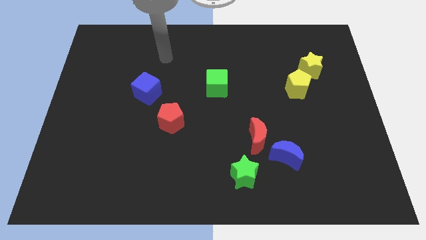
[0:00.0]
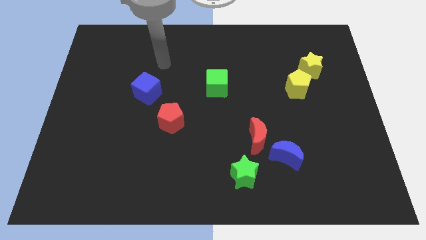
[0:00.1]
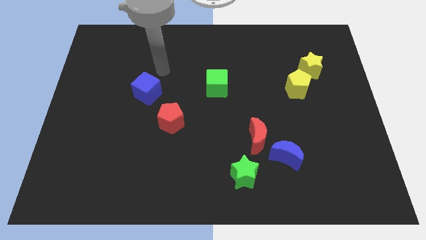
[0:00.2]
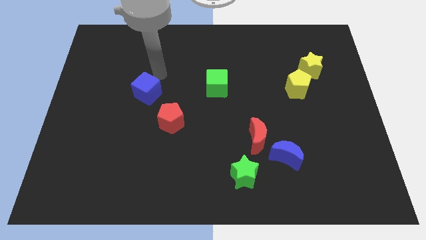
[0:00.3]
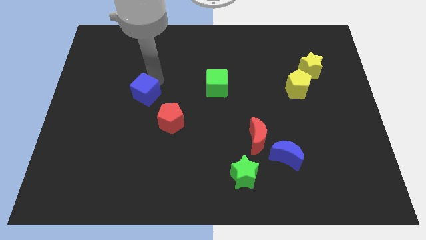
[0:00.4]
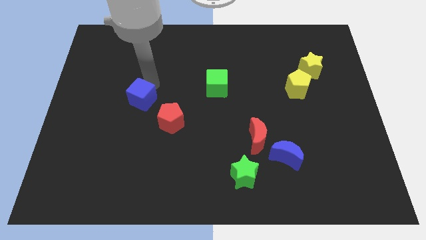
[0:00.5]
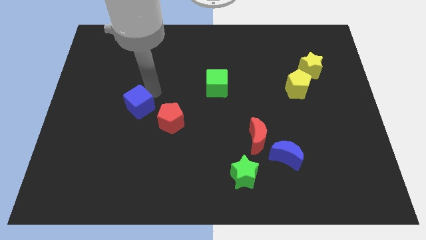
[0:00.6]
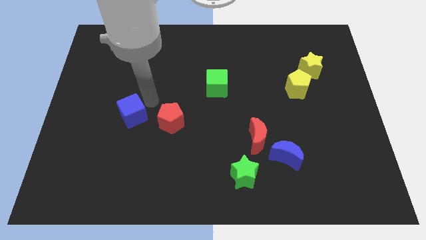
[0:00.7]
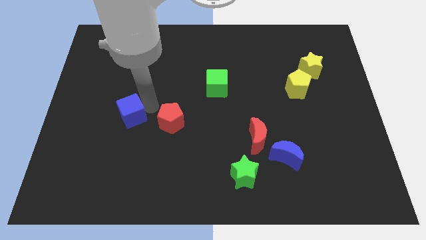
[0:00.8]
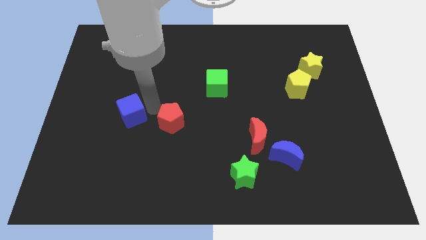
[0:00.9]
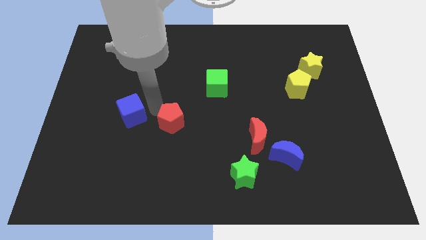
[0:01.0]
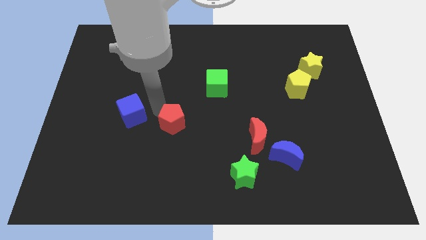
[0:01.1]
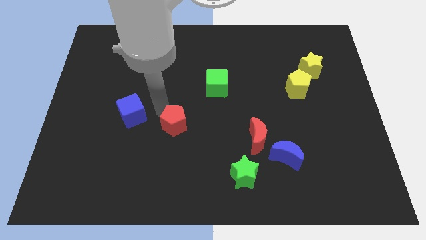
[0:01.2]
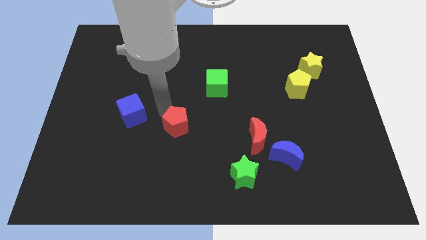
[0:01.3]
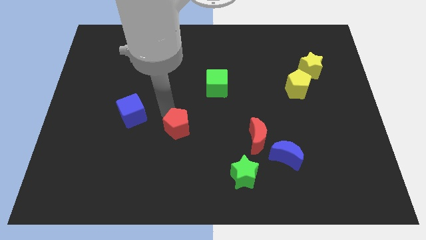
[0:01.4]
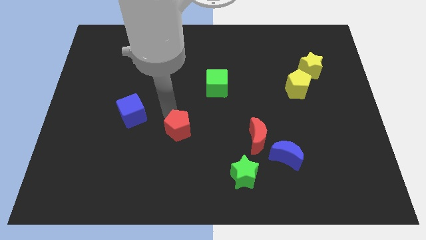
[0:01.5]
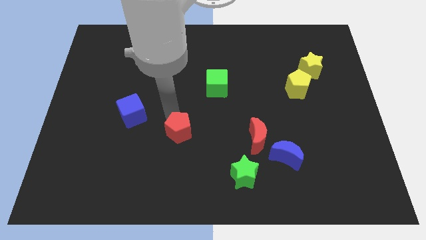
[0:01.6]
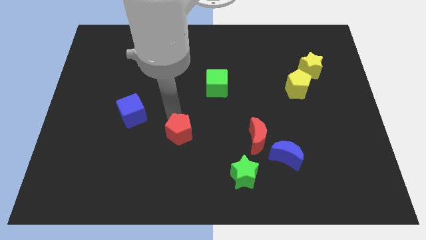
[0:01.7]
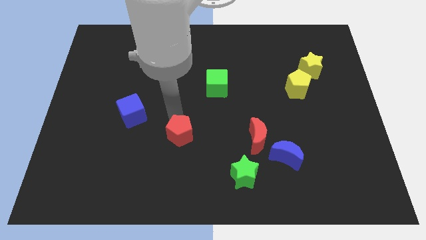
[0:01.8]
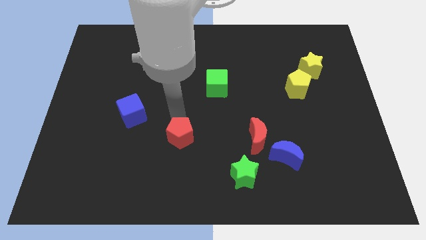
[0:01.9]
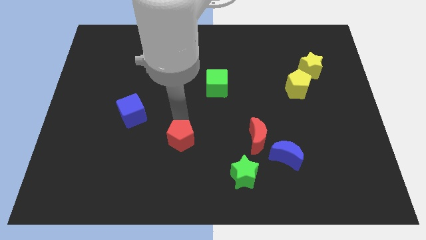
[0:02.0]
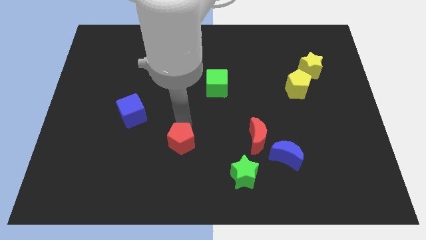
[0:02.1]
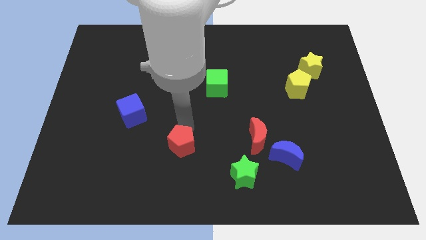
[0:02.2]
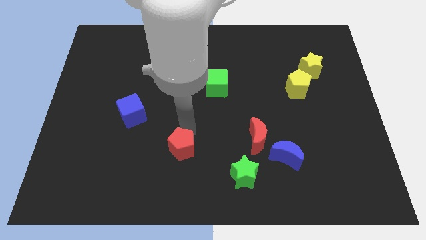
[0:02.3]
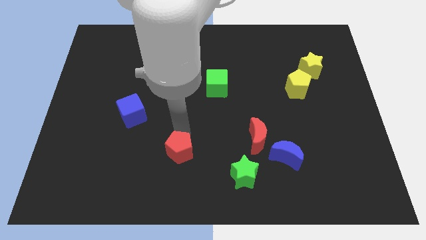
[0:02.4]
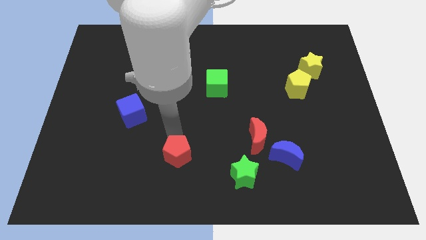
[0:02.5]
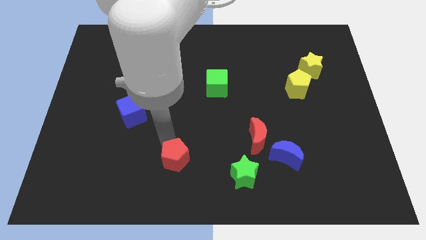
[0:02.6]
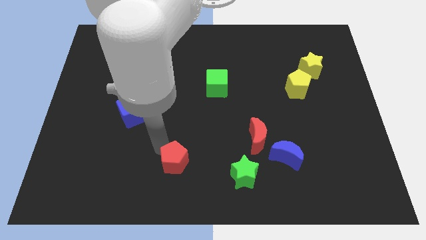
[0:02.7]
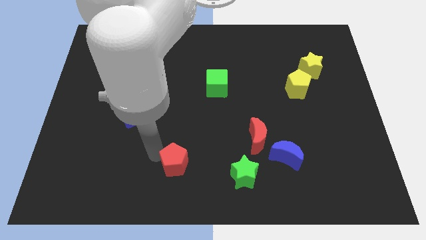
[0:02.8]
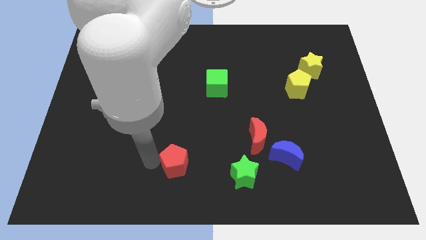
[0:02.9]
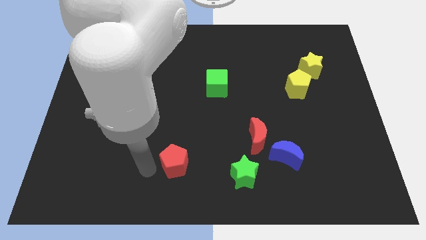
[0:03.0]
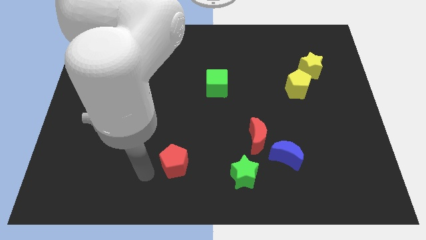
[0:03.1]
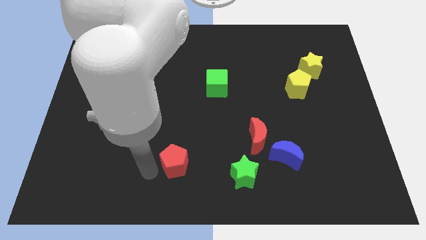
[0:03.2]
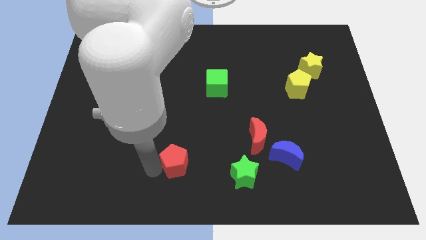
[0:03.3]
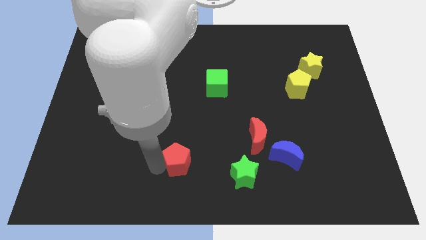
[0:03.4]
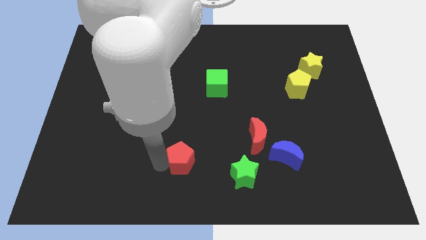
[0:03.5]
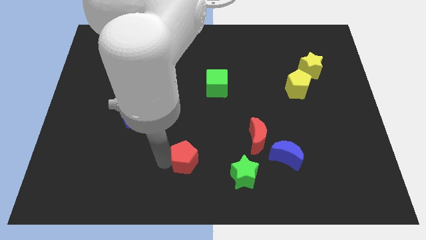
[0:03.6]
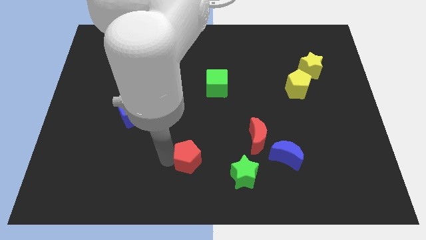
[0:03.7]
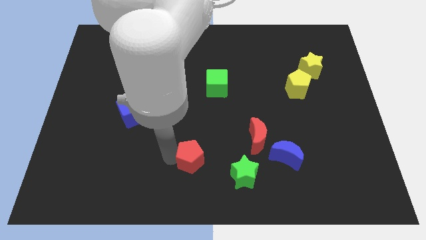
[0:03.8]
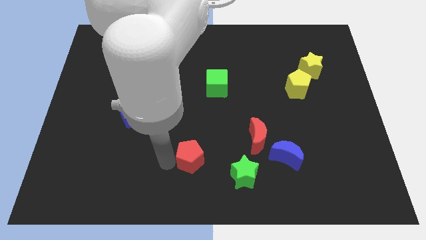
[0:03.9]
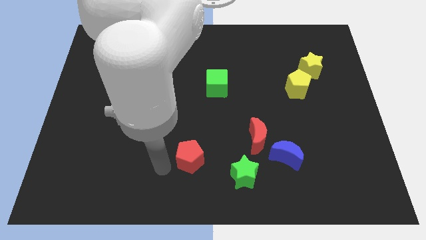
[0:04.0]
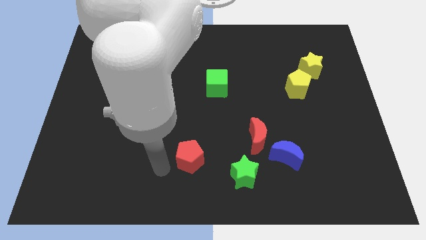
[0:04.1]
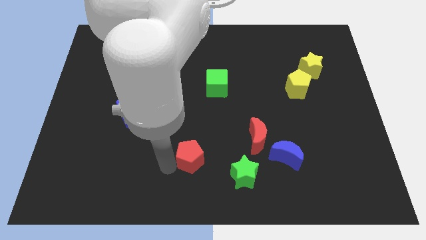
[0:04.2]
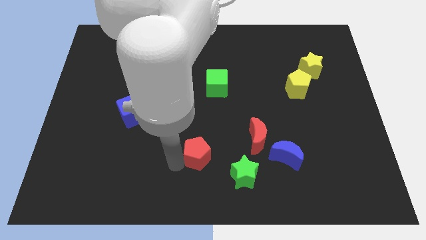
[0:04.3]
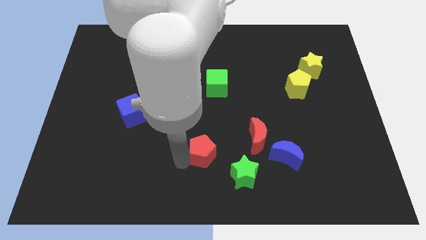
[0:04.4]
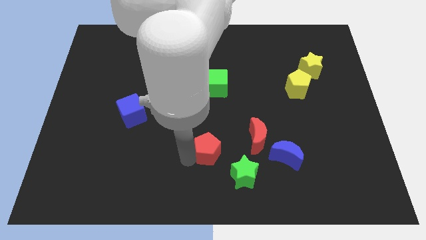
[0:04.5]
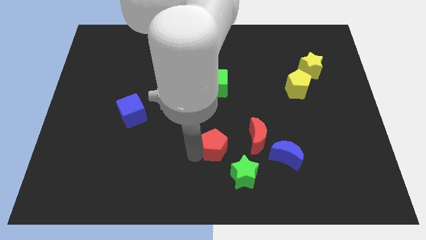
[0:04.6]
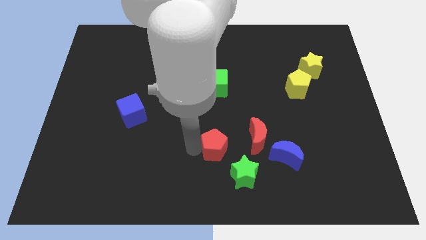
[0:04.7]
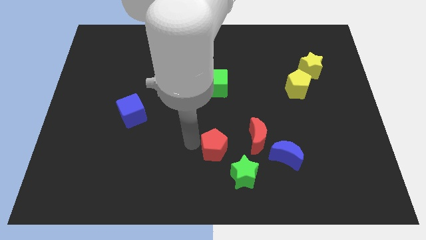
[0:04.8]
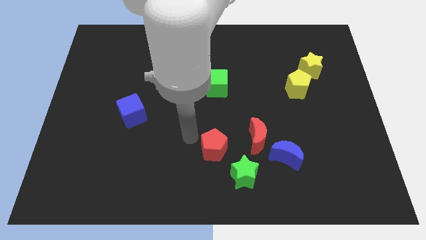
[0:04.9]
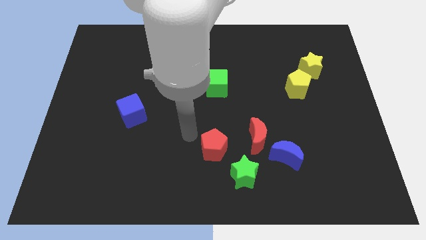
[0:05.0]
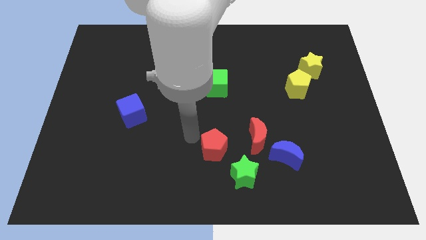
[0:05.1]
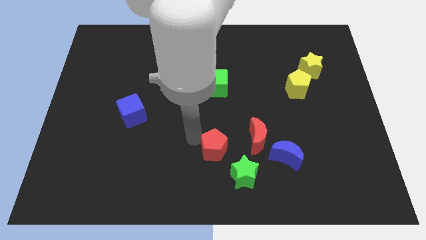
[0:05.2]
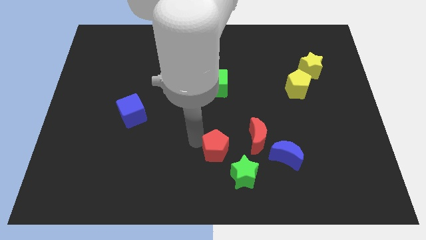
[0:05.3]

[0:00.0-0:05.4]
move the red pentagon to the bottom left side of the red moon

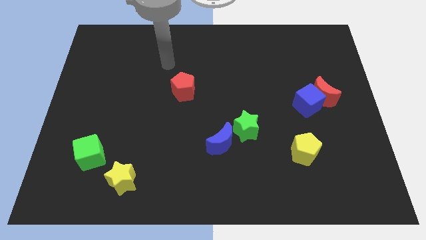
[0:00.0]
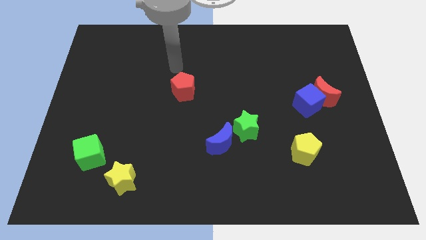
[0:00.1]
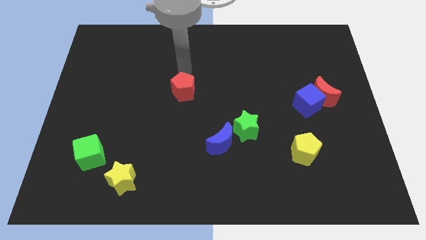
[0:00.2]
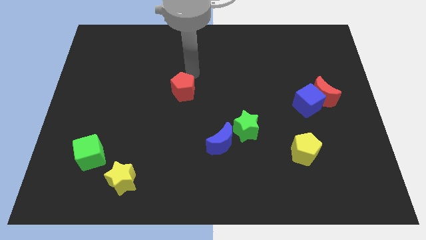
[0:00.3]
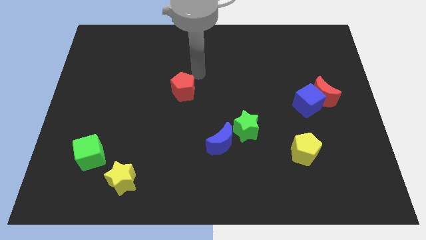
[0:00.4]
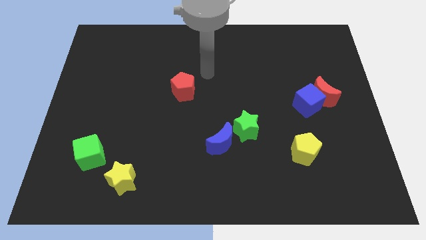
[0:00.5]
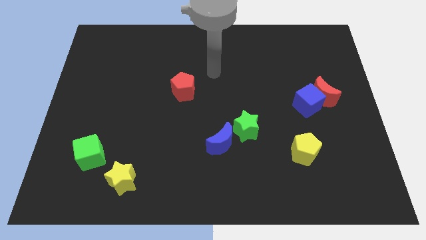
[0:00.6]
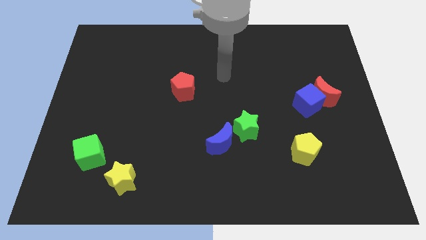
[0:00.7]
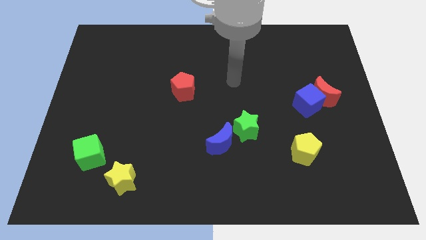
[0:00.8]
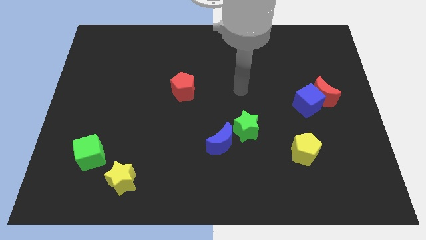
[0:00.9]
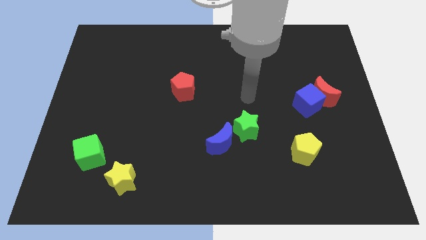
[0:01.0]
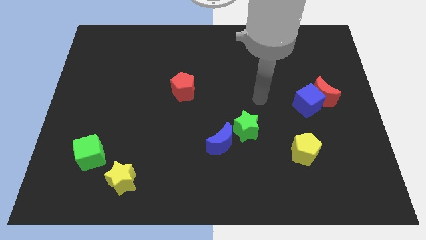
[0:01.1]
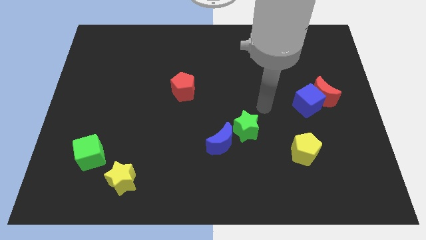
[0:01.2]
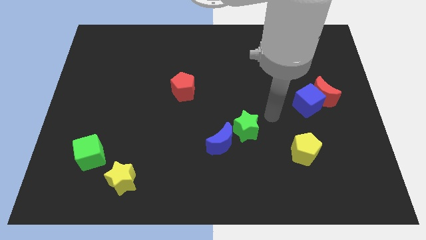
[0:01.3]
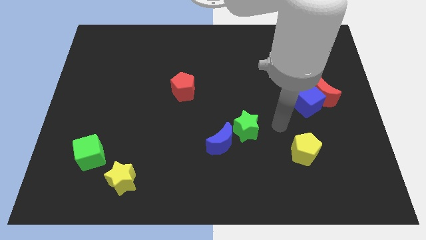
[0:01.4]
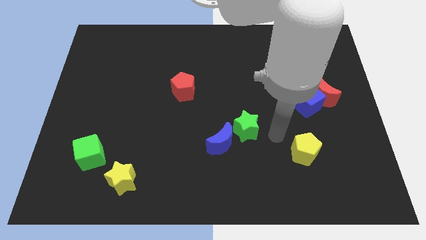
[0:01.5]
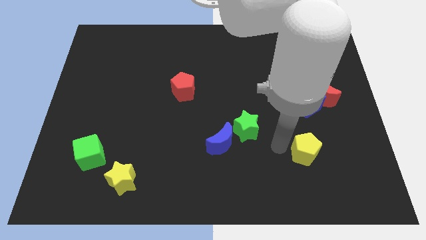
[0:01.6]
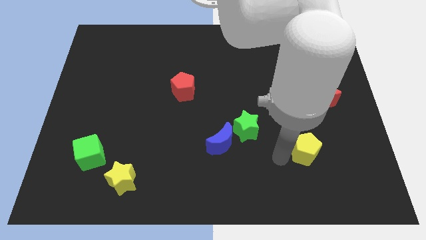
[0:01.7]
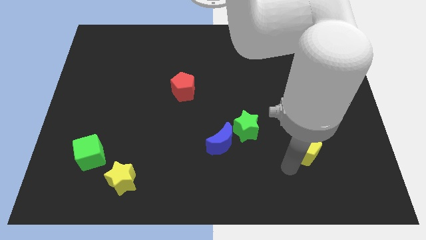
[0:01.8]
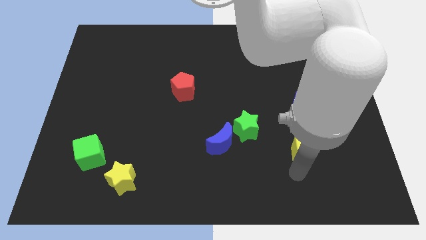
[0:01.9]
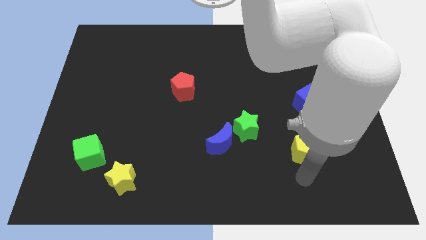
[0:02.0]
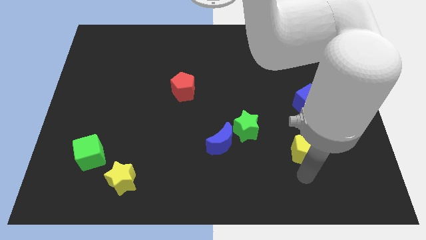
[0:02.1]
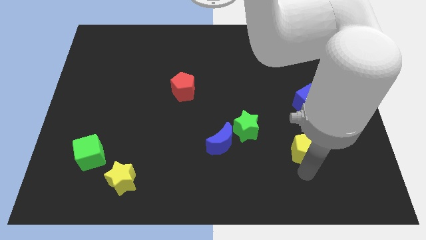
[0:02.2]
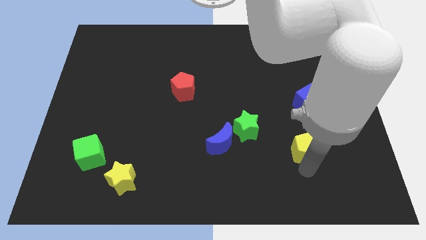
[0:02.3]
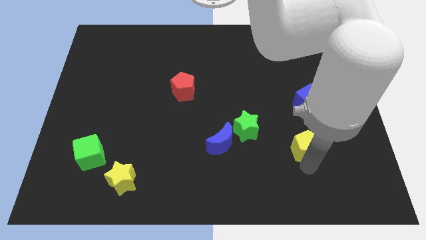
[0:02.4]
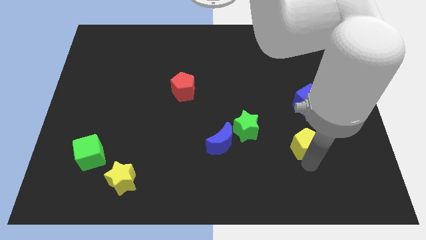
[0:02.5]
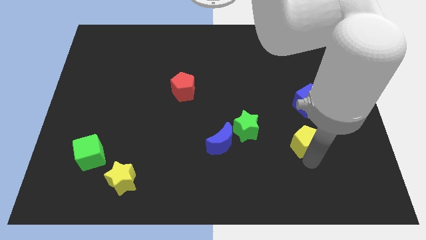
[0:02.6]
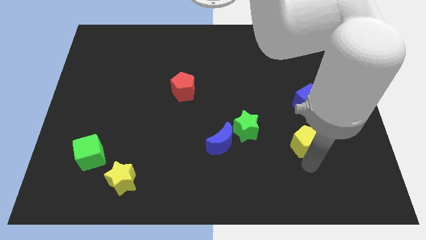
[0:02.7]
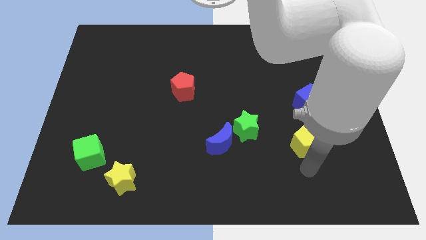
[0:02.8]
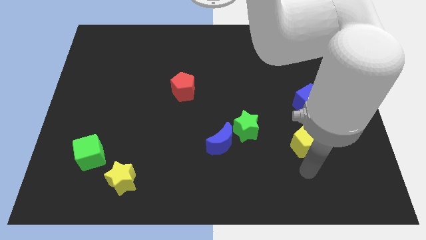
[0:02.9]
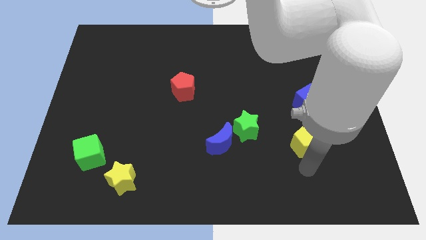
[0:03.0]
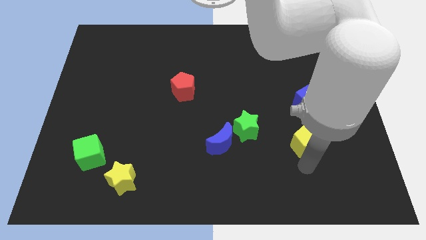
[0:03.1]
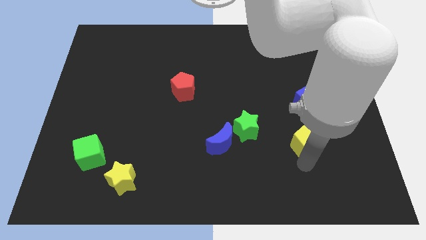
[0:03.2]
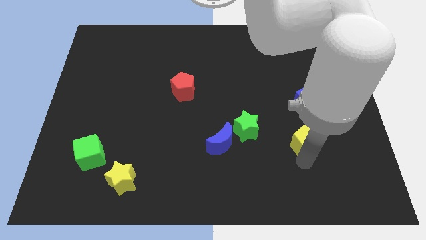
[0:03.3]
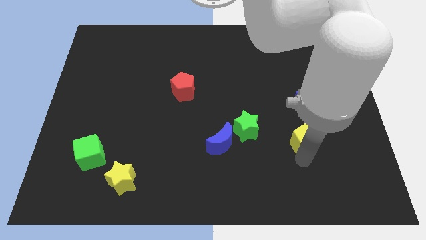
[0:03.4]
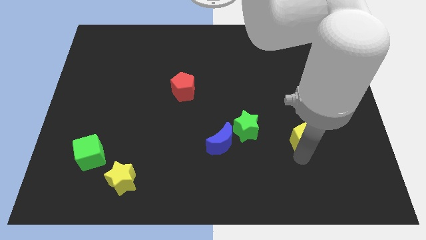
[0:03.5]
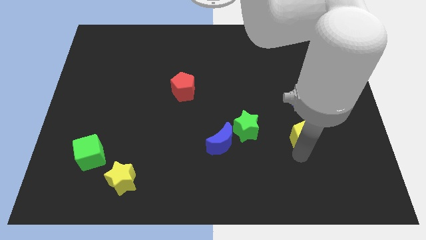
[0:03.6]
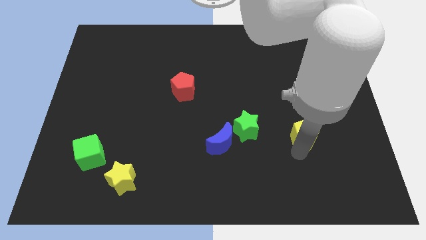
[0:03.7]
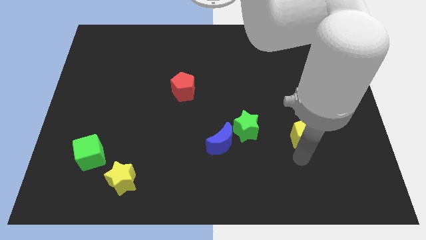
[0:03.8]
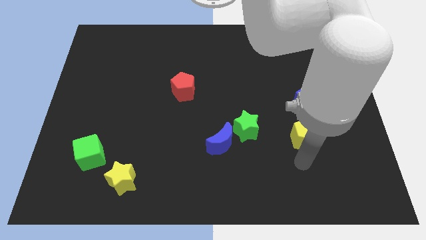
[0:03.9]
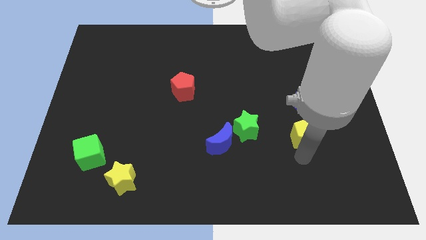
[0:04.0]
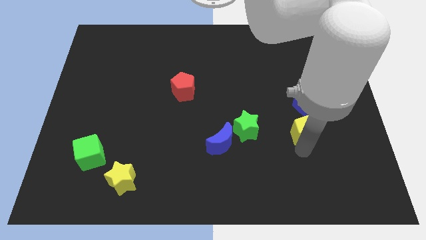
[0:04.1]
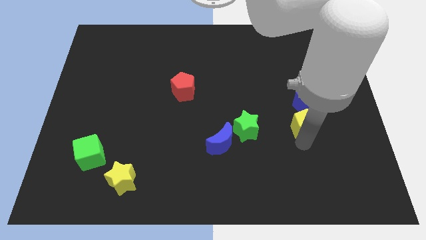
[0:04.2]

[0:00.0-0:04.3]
put the yellow pentagon diagonally down and to the left of the red moon
